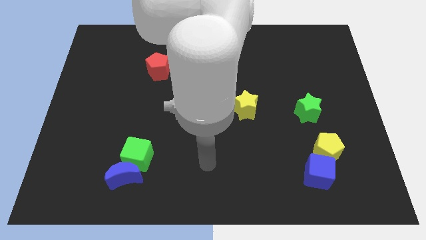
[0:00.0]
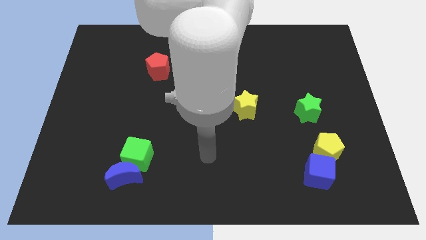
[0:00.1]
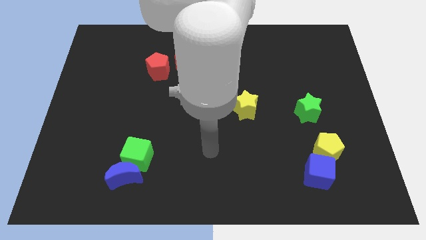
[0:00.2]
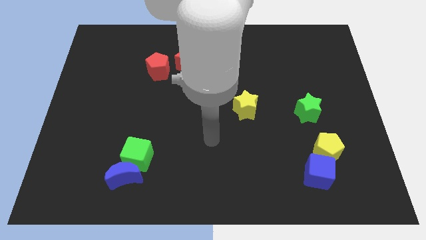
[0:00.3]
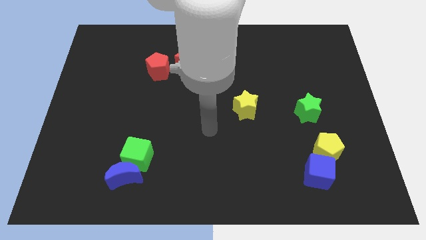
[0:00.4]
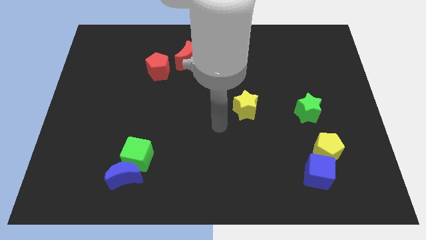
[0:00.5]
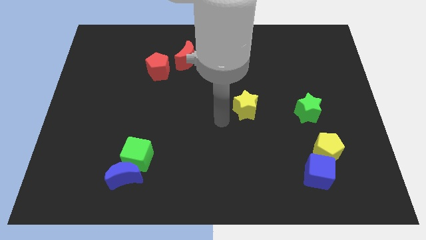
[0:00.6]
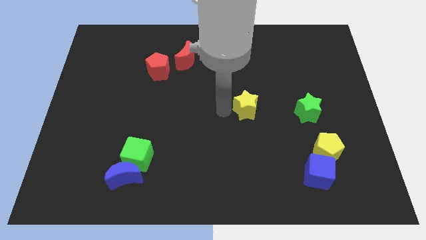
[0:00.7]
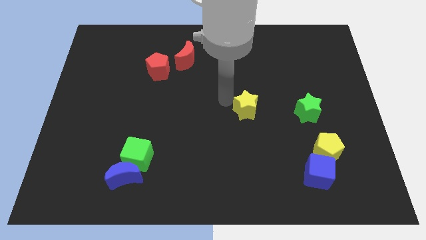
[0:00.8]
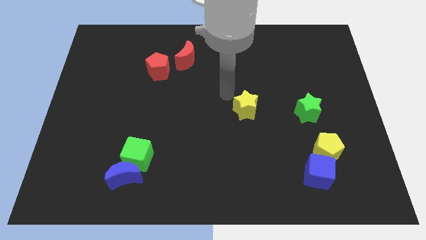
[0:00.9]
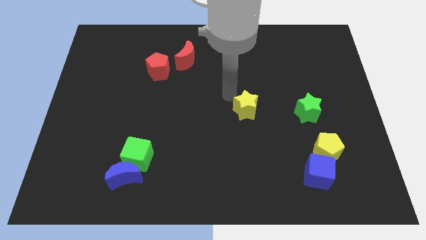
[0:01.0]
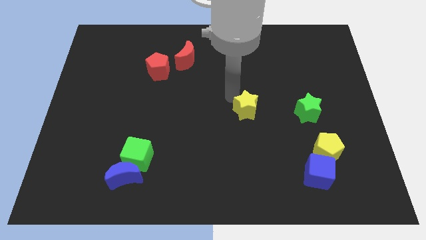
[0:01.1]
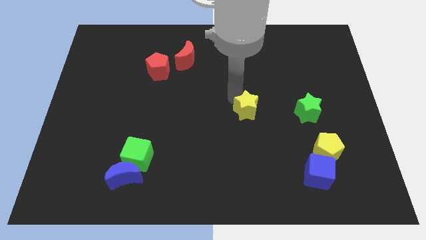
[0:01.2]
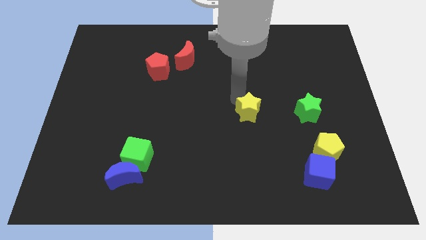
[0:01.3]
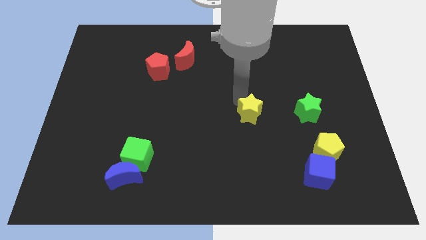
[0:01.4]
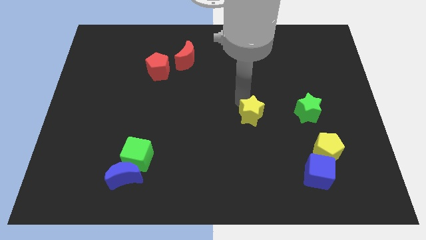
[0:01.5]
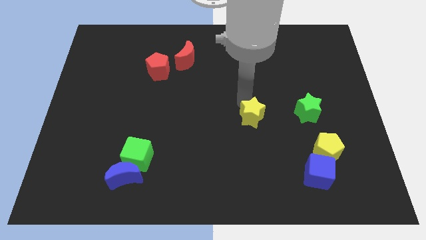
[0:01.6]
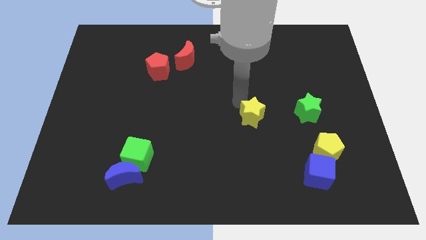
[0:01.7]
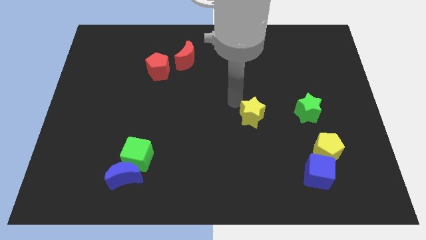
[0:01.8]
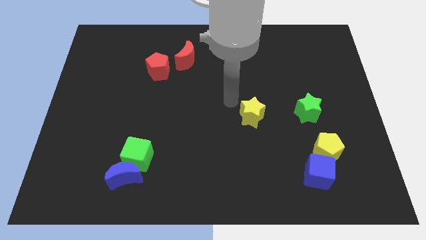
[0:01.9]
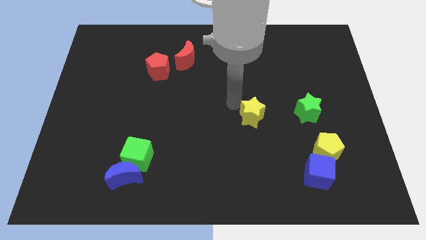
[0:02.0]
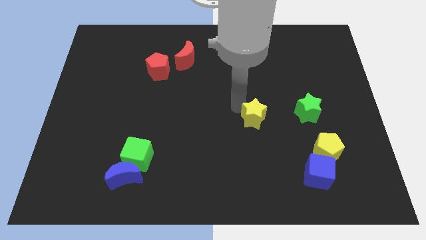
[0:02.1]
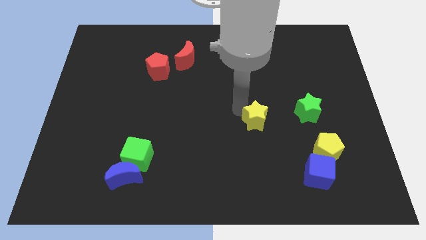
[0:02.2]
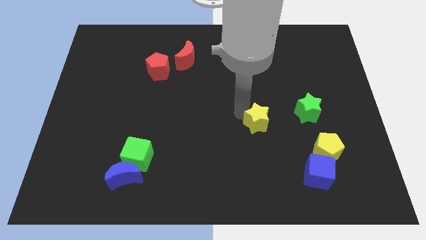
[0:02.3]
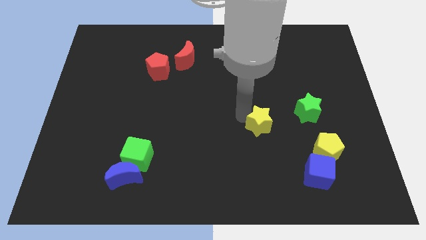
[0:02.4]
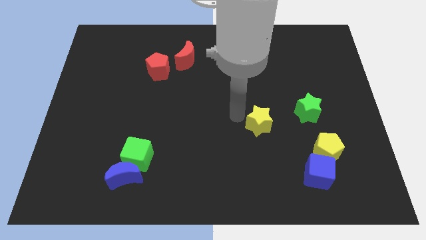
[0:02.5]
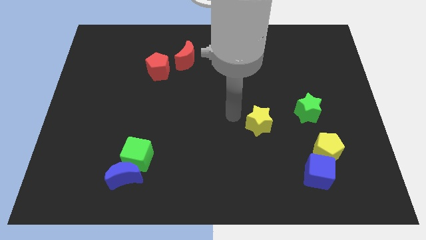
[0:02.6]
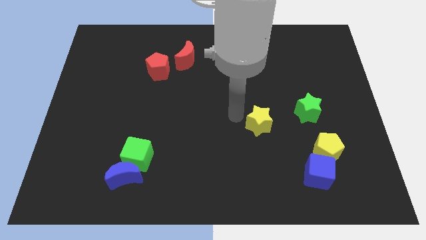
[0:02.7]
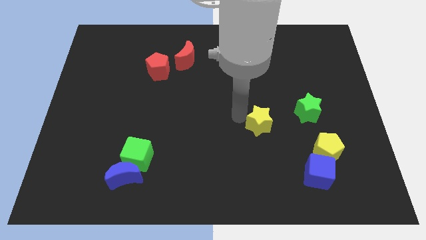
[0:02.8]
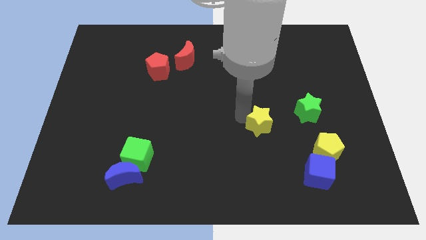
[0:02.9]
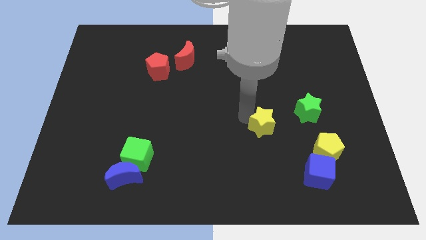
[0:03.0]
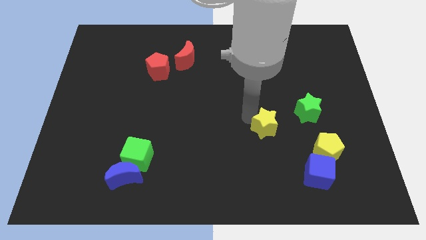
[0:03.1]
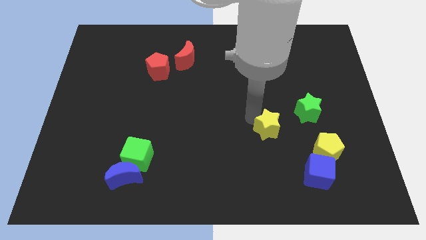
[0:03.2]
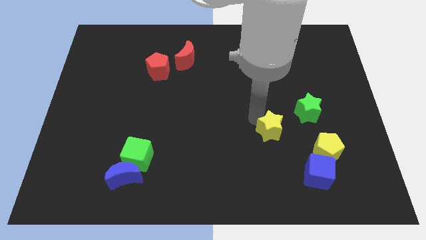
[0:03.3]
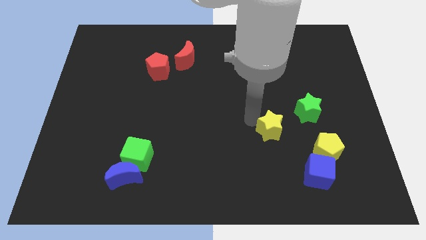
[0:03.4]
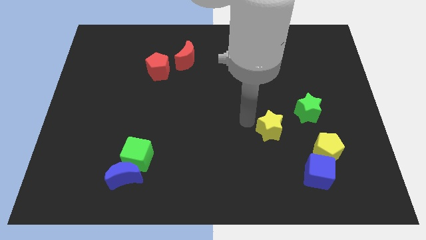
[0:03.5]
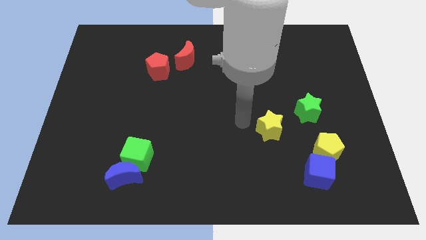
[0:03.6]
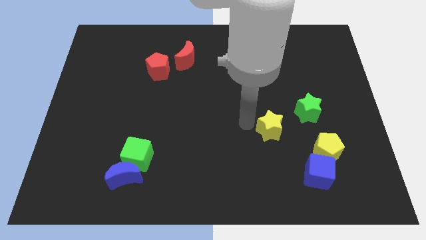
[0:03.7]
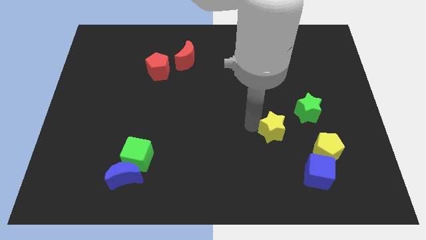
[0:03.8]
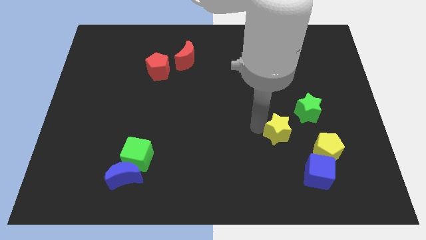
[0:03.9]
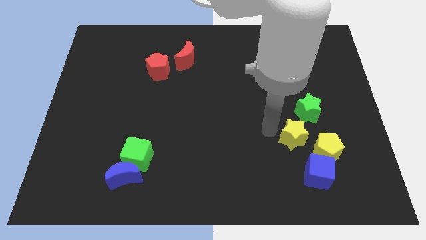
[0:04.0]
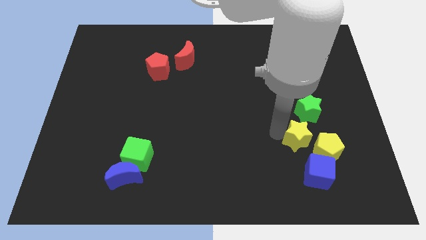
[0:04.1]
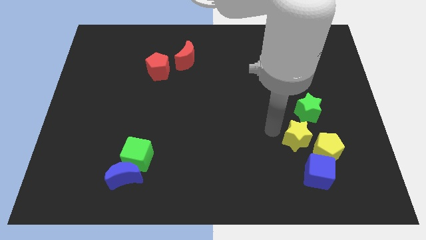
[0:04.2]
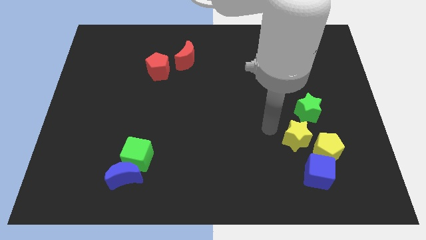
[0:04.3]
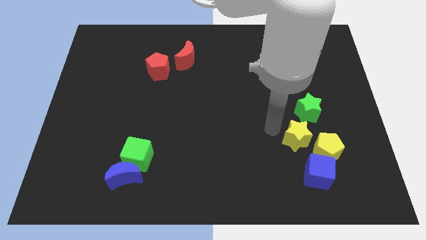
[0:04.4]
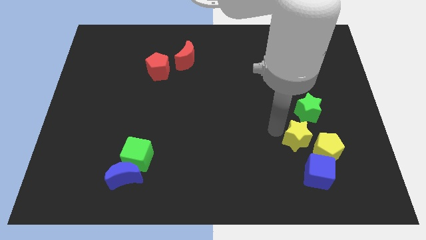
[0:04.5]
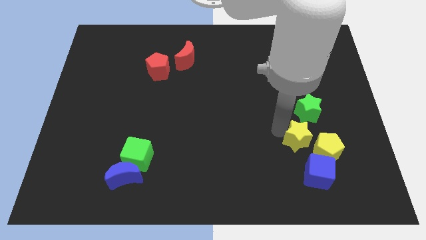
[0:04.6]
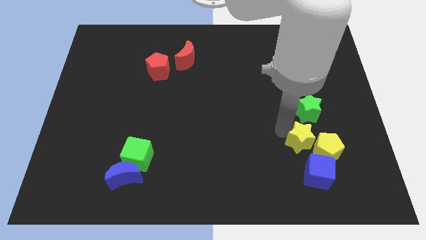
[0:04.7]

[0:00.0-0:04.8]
push the yellow star to the yellow pentagon

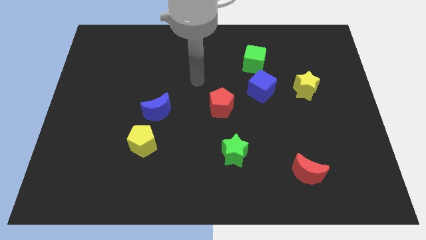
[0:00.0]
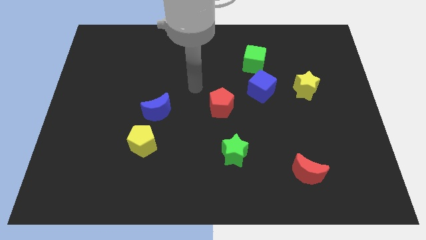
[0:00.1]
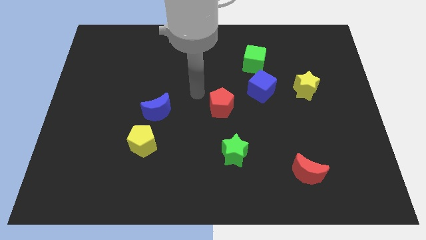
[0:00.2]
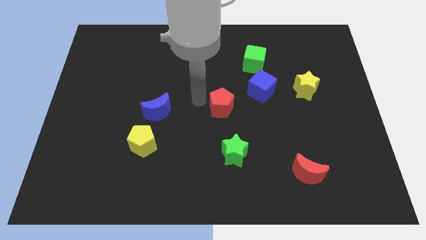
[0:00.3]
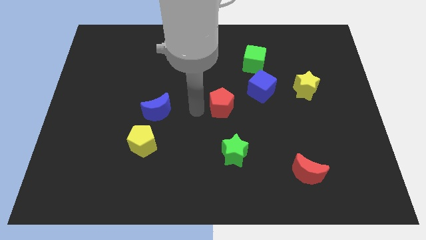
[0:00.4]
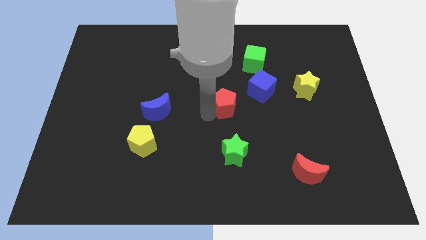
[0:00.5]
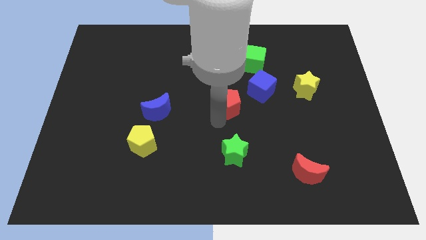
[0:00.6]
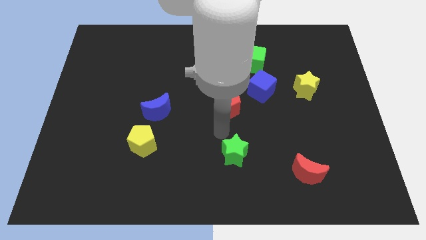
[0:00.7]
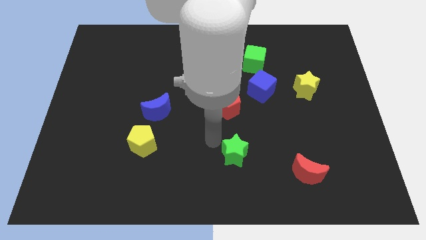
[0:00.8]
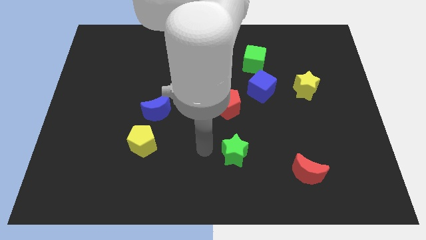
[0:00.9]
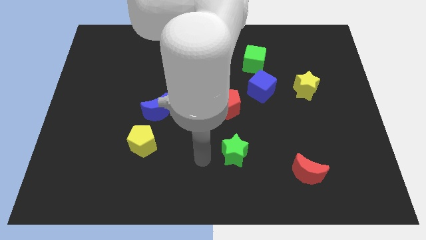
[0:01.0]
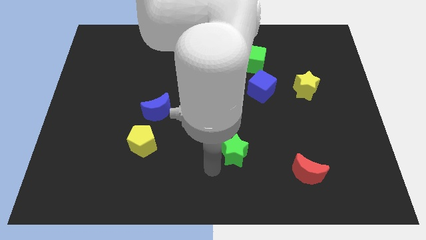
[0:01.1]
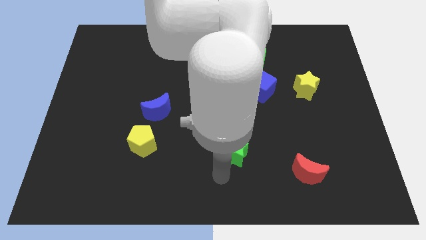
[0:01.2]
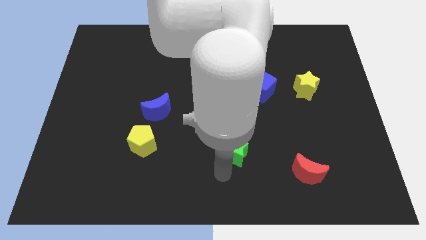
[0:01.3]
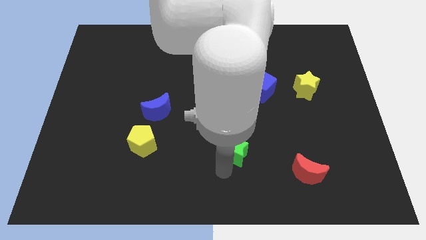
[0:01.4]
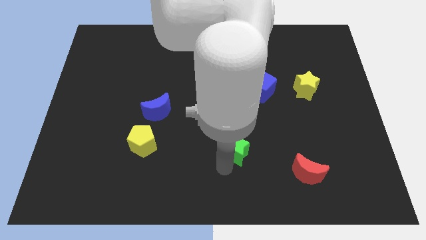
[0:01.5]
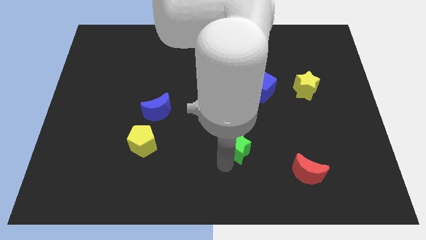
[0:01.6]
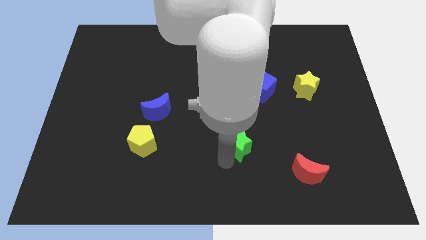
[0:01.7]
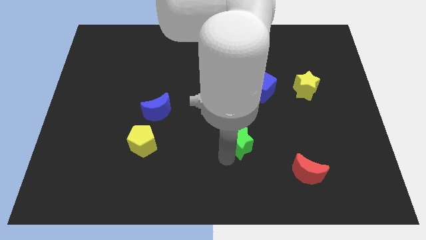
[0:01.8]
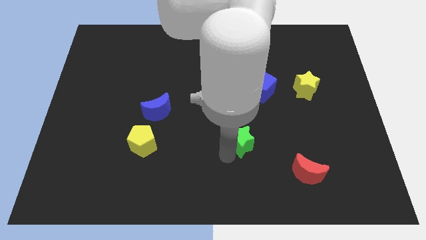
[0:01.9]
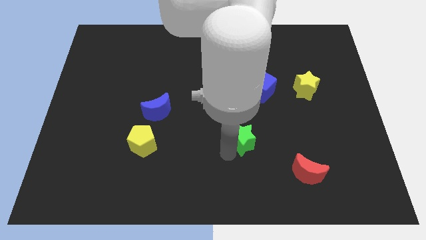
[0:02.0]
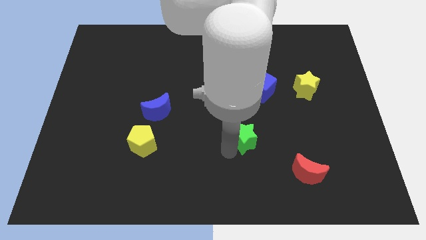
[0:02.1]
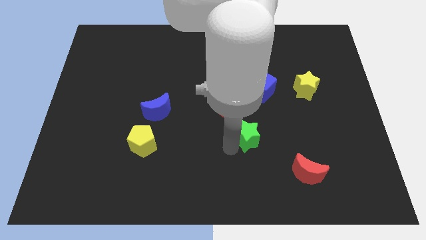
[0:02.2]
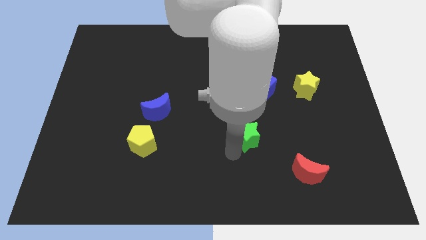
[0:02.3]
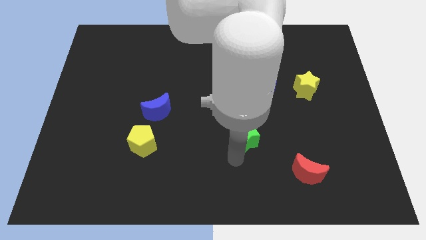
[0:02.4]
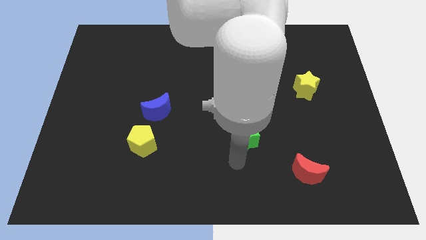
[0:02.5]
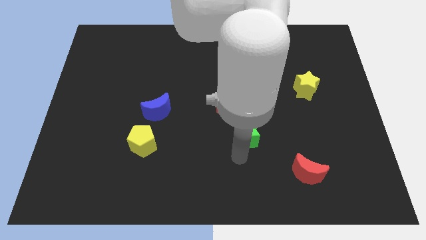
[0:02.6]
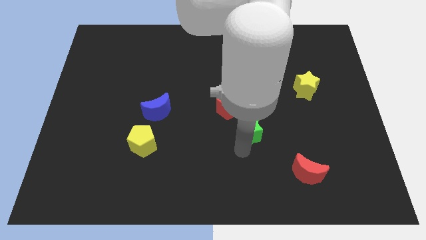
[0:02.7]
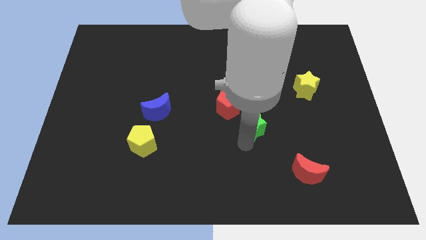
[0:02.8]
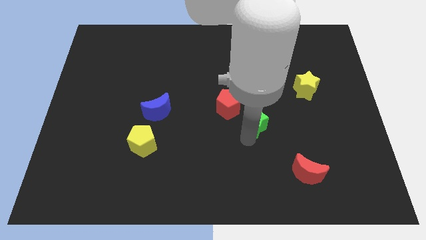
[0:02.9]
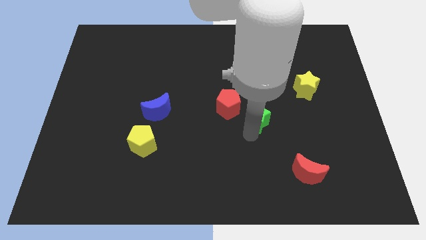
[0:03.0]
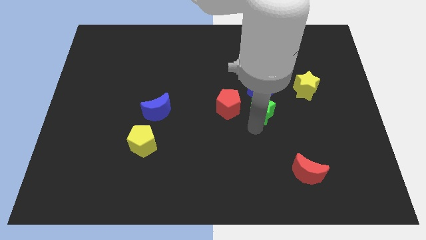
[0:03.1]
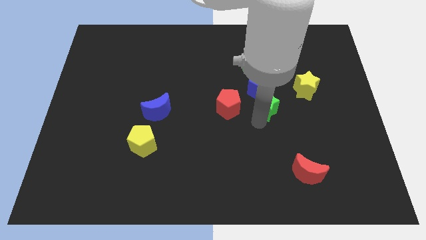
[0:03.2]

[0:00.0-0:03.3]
push the green star close to the blue cube
